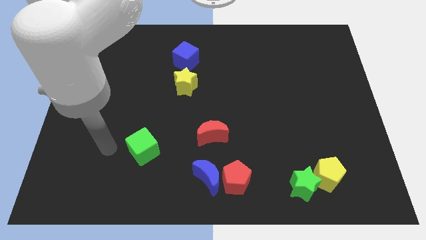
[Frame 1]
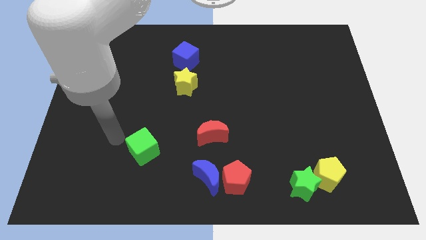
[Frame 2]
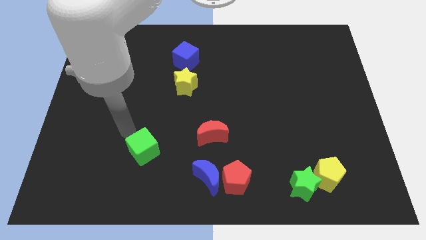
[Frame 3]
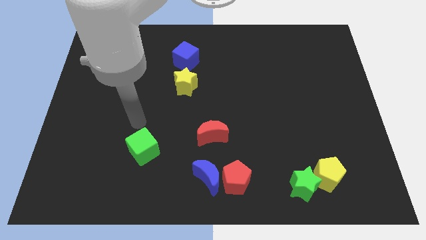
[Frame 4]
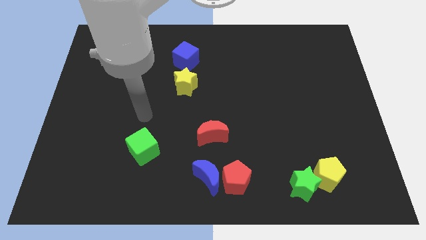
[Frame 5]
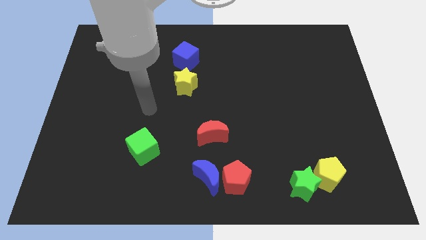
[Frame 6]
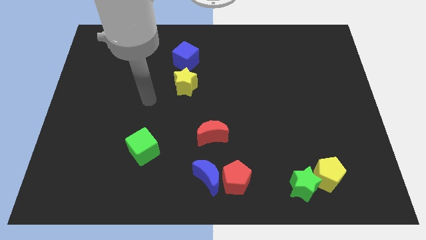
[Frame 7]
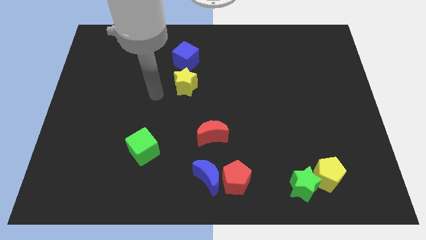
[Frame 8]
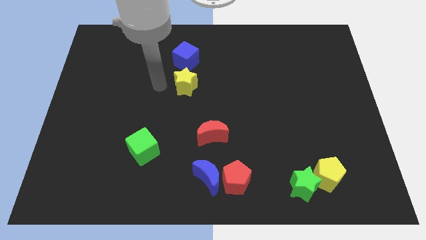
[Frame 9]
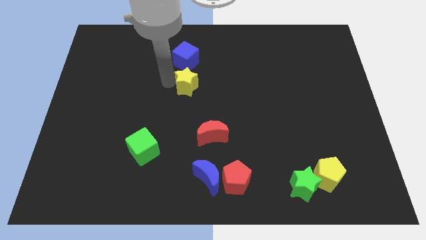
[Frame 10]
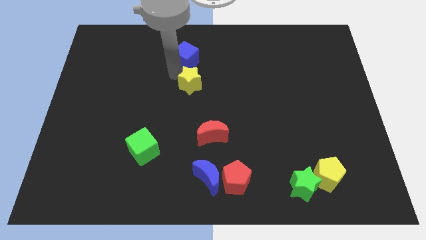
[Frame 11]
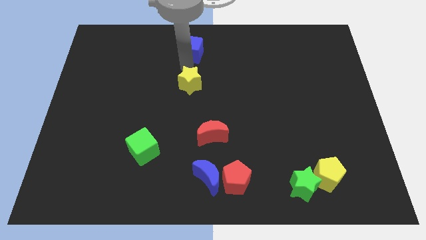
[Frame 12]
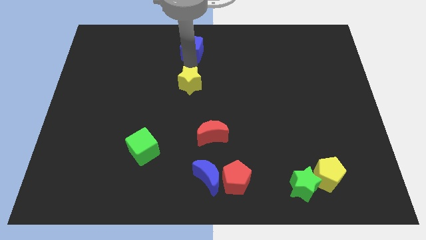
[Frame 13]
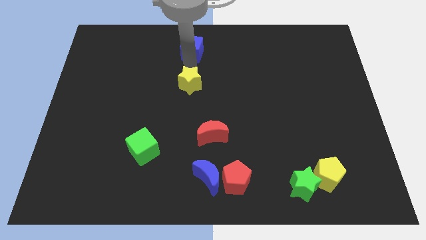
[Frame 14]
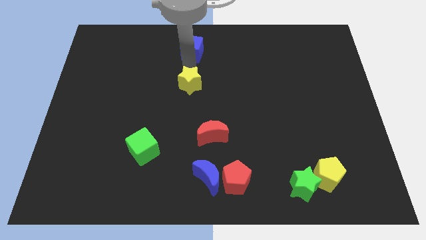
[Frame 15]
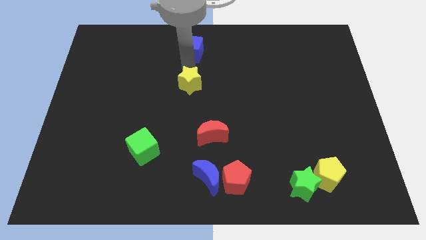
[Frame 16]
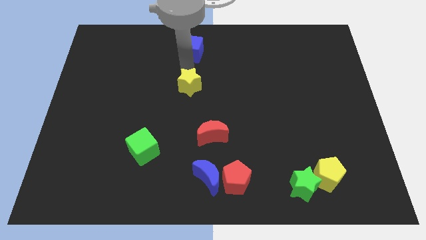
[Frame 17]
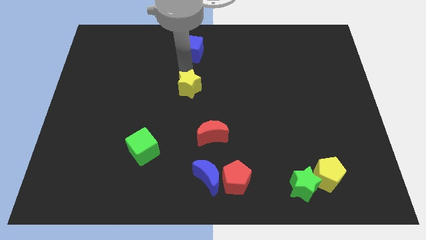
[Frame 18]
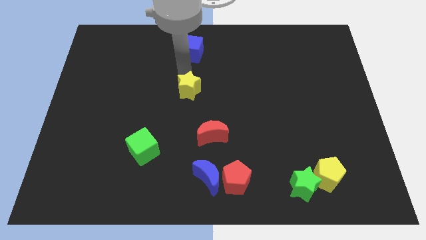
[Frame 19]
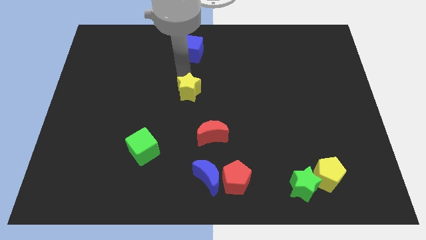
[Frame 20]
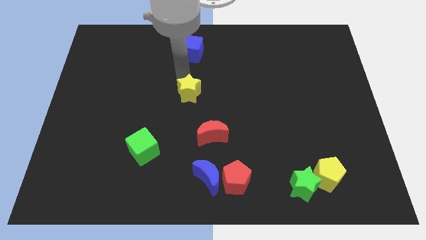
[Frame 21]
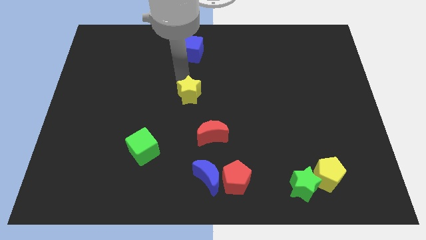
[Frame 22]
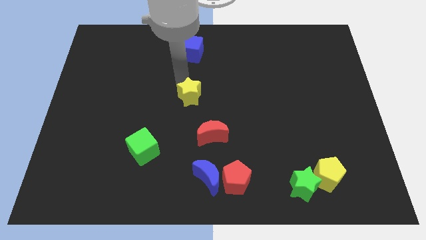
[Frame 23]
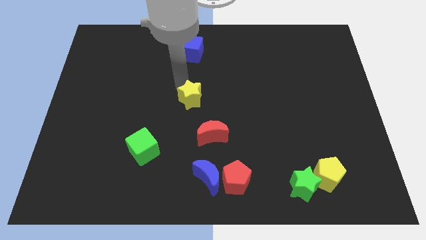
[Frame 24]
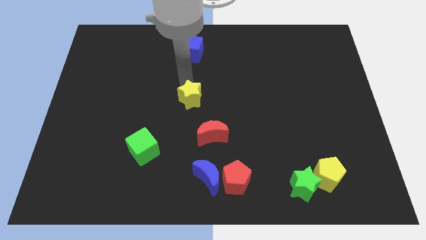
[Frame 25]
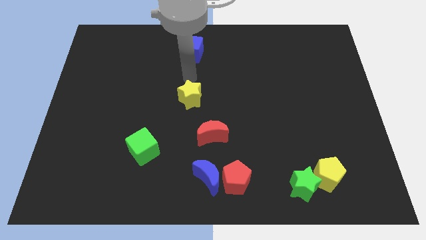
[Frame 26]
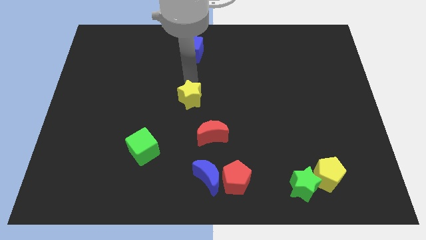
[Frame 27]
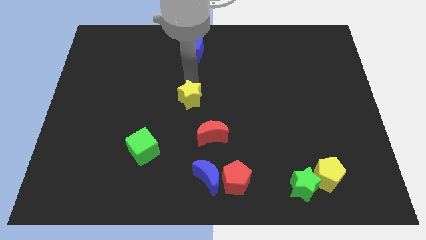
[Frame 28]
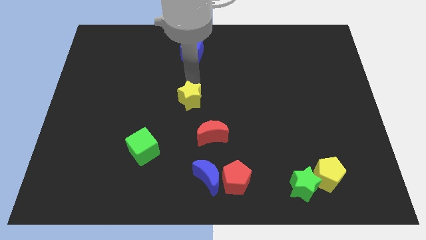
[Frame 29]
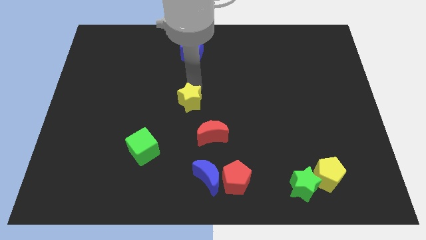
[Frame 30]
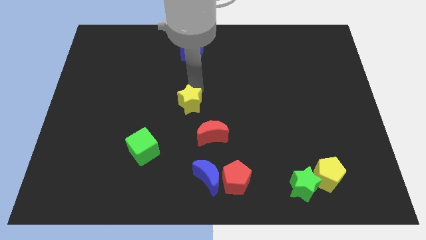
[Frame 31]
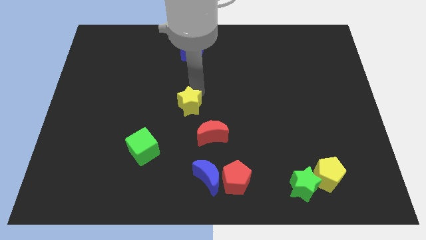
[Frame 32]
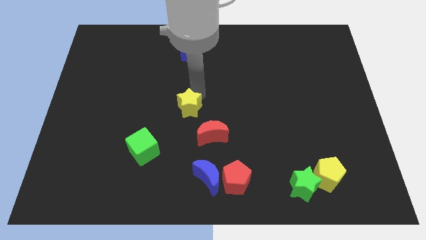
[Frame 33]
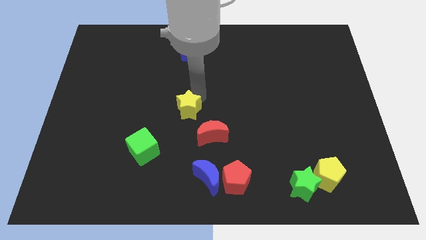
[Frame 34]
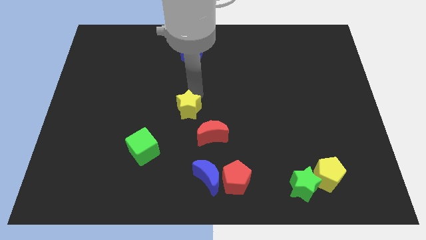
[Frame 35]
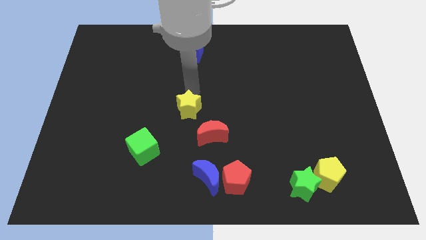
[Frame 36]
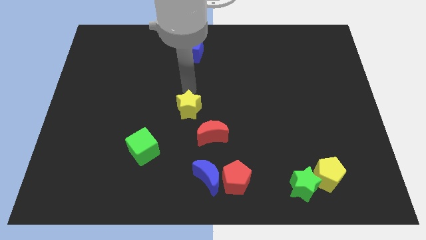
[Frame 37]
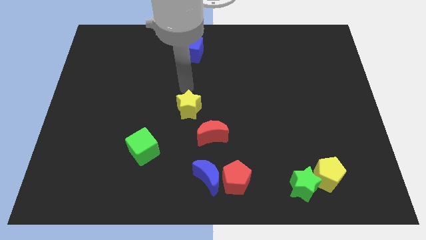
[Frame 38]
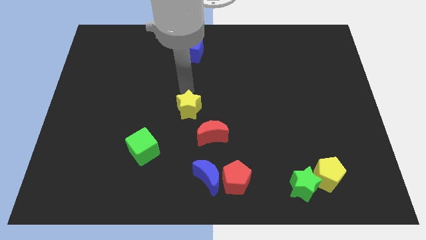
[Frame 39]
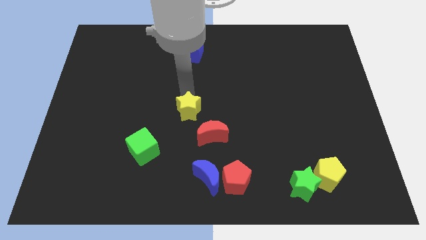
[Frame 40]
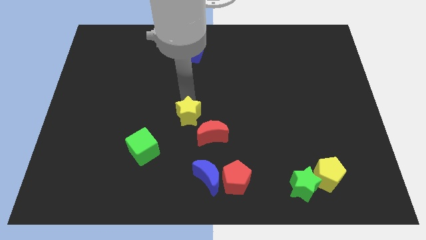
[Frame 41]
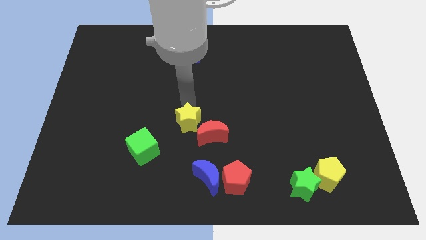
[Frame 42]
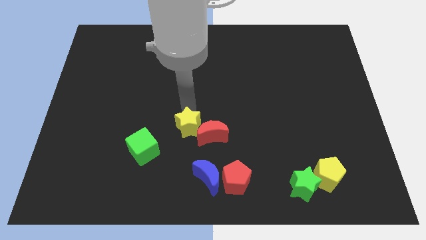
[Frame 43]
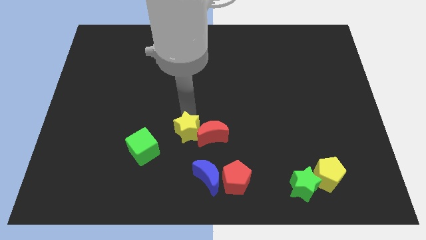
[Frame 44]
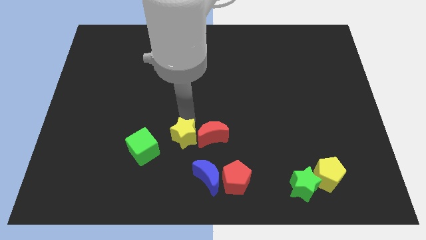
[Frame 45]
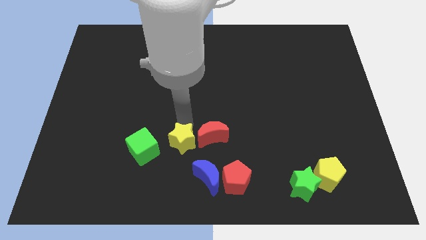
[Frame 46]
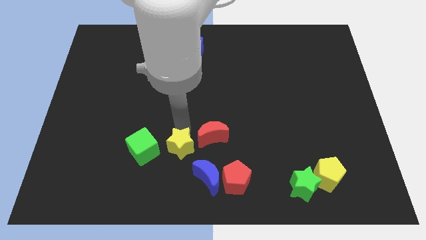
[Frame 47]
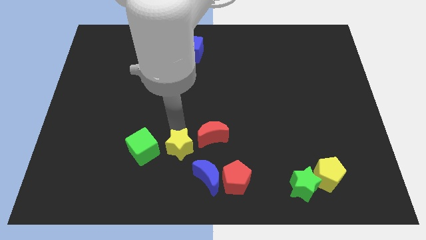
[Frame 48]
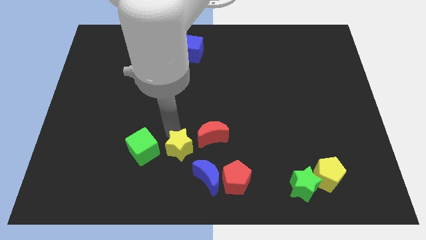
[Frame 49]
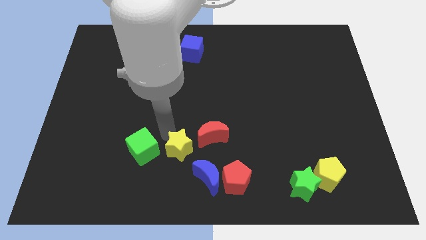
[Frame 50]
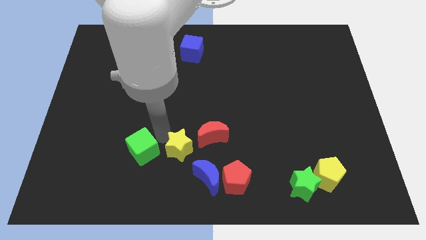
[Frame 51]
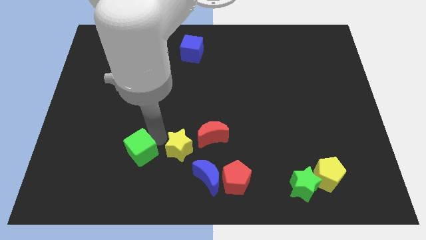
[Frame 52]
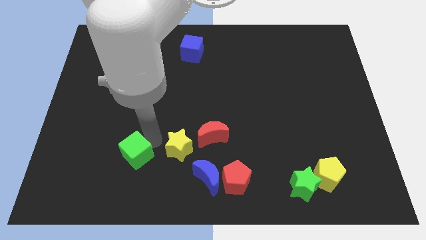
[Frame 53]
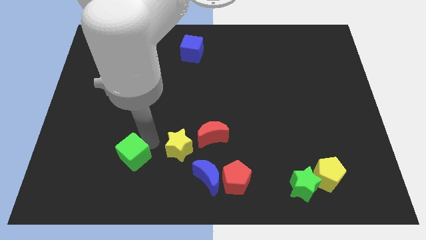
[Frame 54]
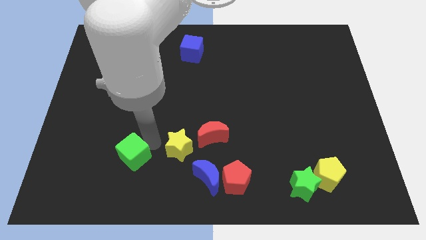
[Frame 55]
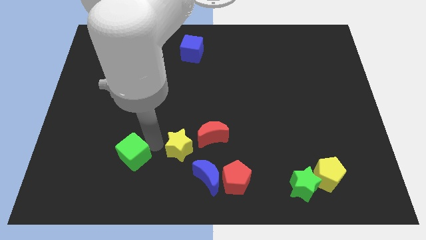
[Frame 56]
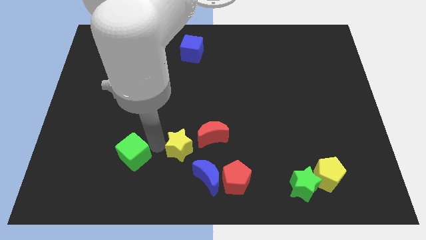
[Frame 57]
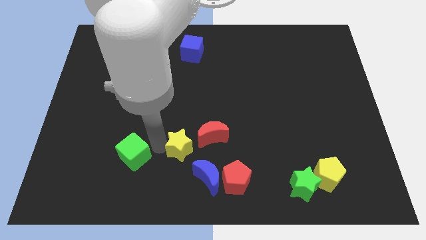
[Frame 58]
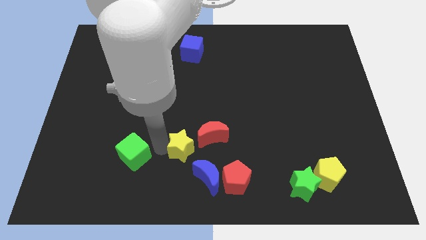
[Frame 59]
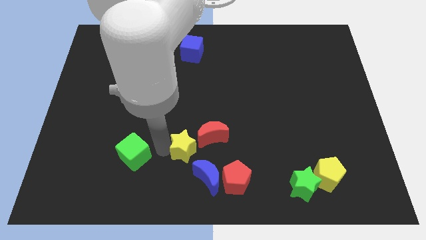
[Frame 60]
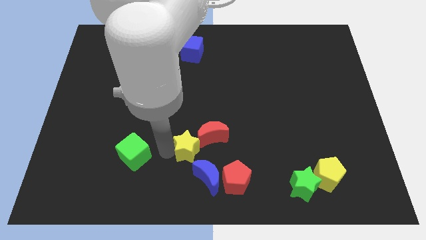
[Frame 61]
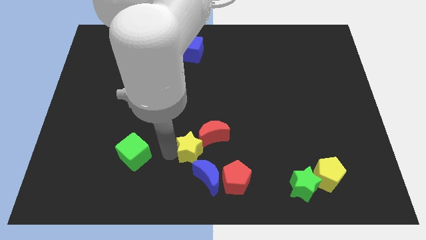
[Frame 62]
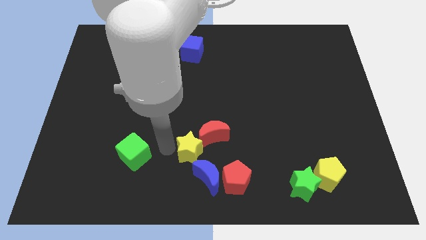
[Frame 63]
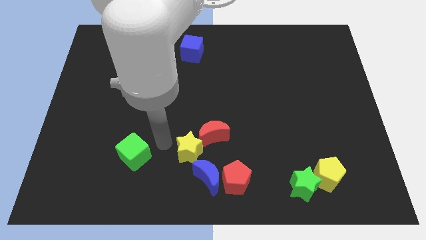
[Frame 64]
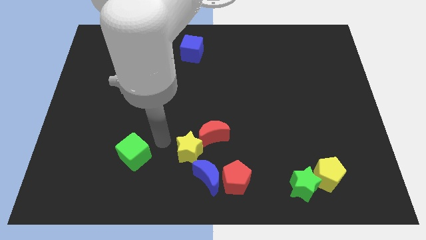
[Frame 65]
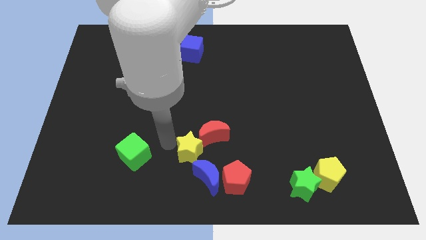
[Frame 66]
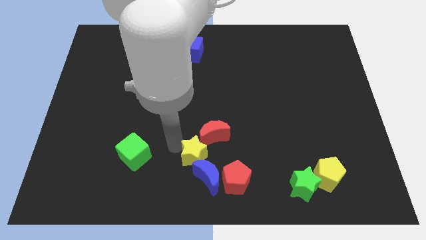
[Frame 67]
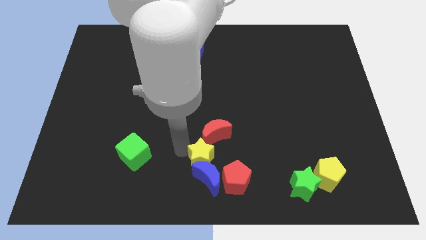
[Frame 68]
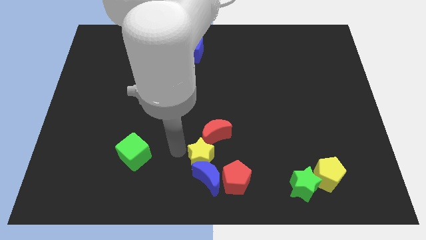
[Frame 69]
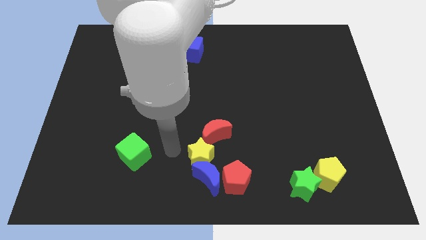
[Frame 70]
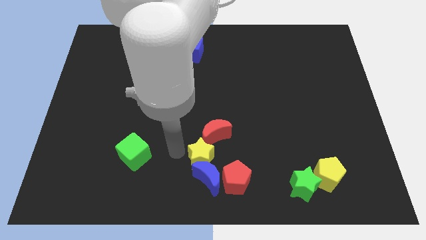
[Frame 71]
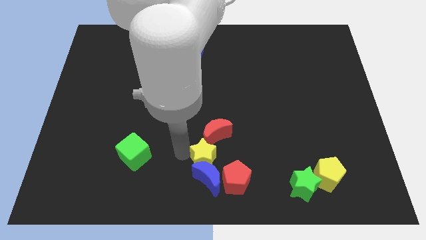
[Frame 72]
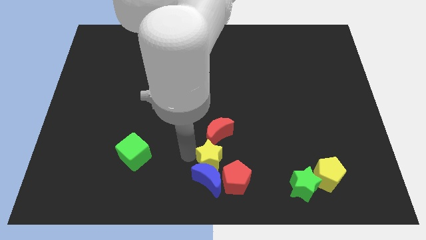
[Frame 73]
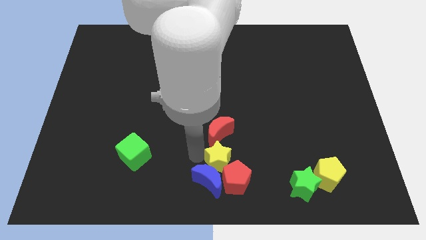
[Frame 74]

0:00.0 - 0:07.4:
push the yellow star towards the red pentagon

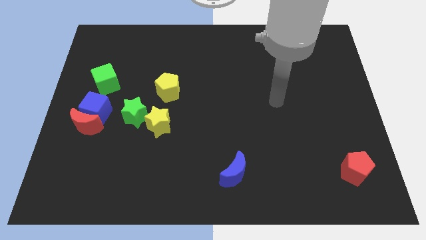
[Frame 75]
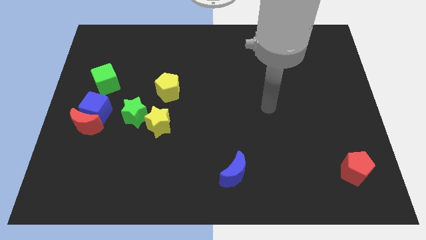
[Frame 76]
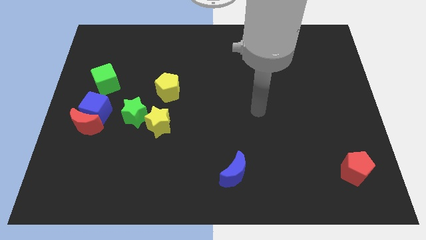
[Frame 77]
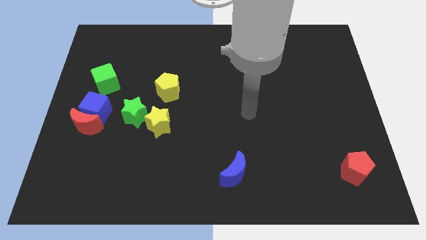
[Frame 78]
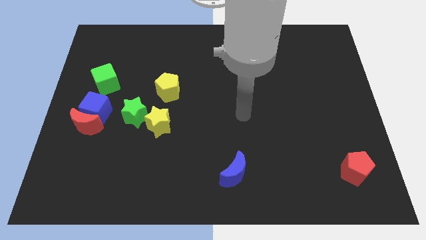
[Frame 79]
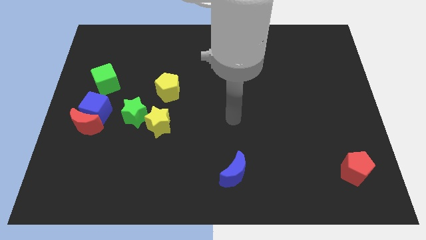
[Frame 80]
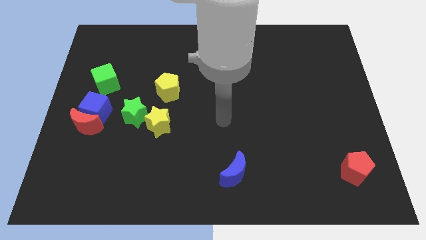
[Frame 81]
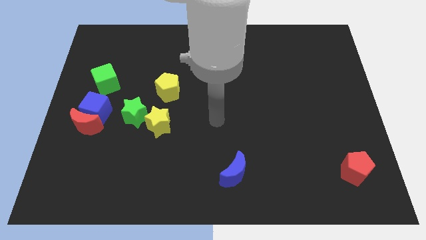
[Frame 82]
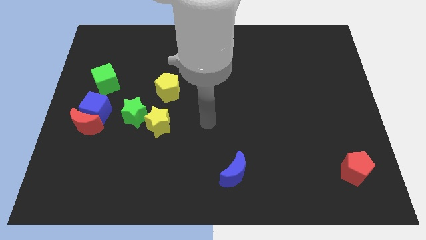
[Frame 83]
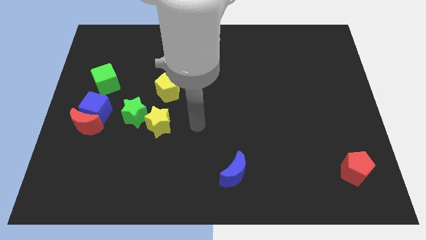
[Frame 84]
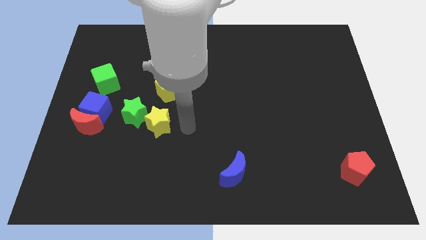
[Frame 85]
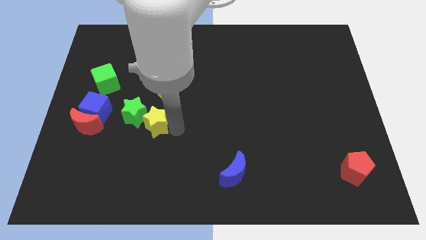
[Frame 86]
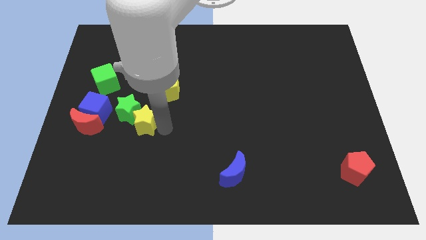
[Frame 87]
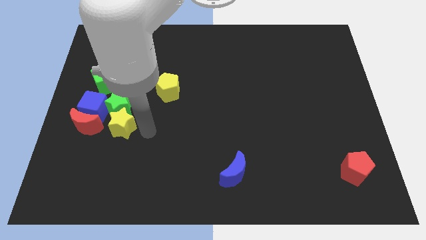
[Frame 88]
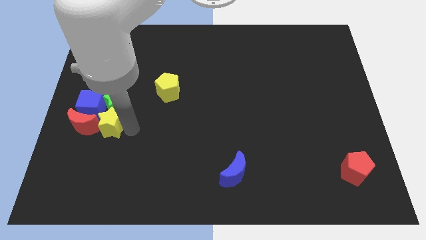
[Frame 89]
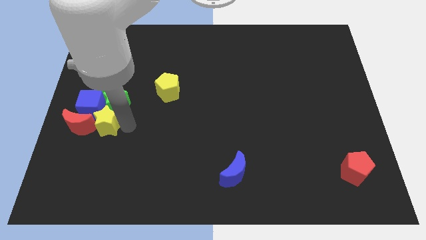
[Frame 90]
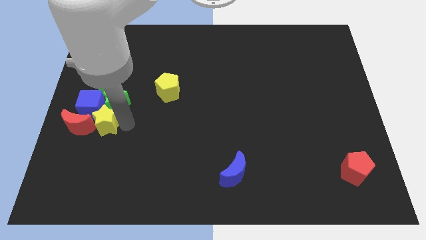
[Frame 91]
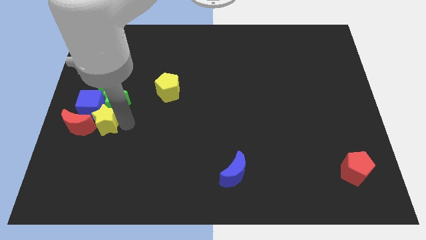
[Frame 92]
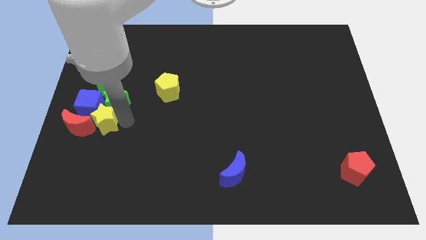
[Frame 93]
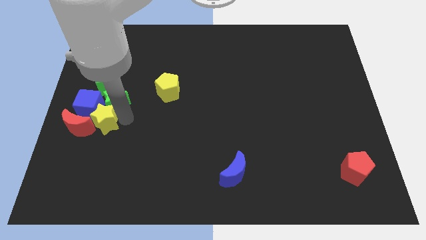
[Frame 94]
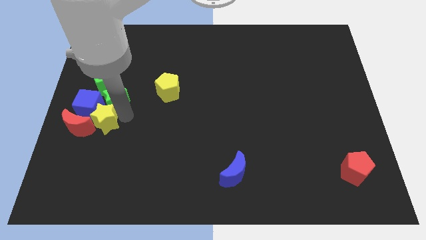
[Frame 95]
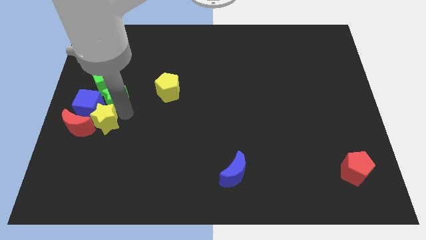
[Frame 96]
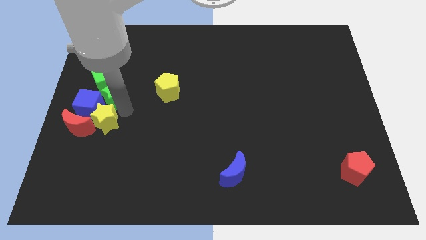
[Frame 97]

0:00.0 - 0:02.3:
push the green star to the green cube
